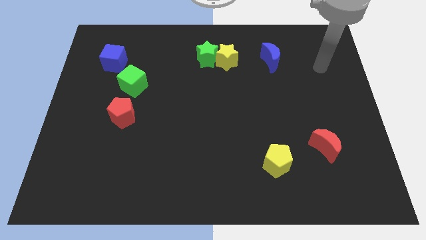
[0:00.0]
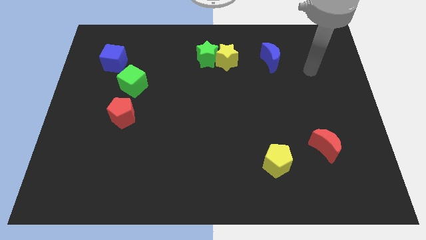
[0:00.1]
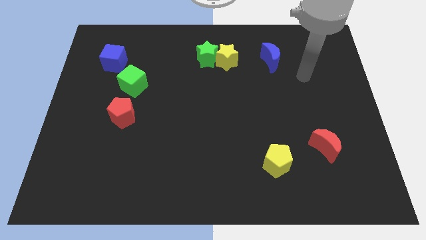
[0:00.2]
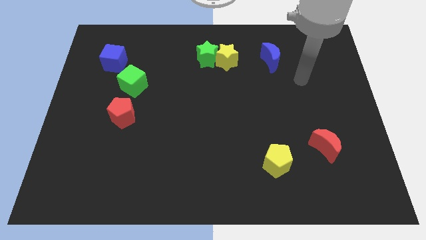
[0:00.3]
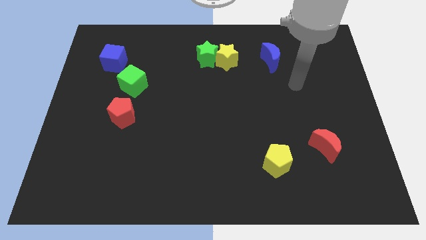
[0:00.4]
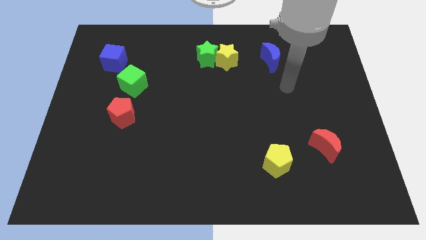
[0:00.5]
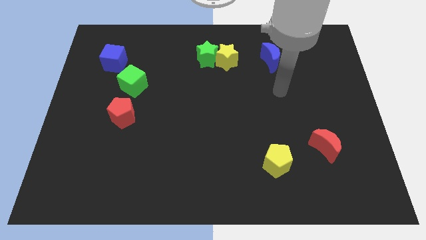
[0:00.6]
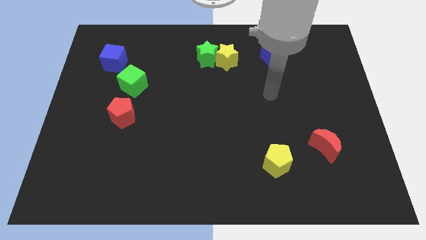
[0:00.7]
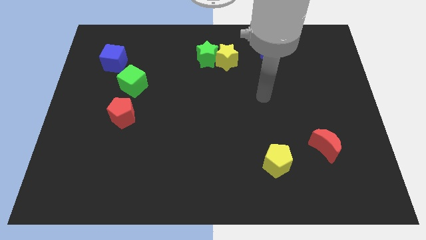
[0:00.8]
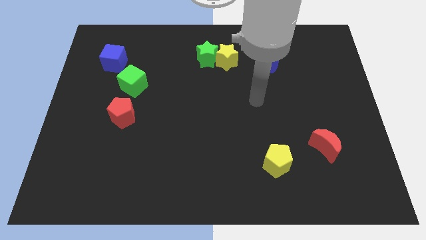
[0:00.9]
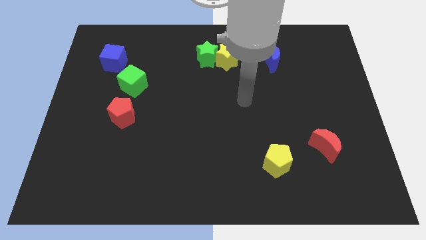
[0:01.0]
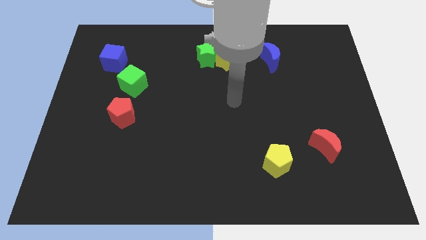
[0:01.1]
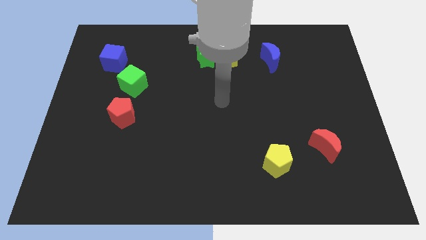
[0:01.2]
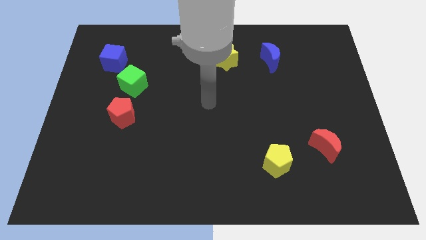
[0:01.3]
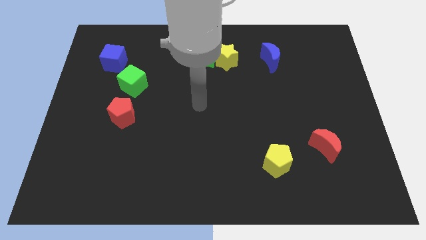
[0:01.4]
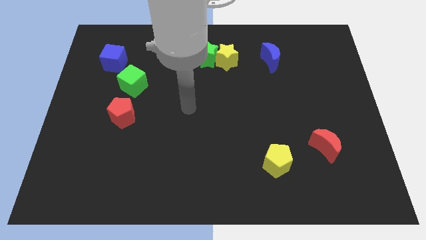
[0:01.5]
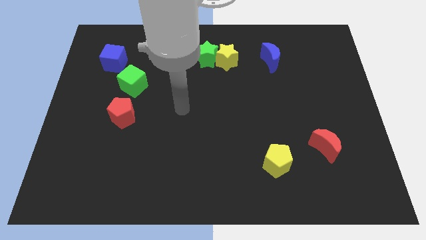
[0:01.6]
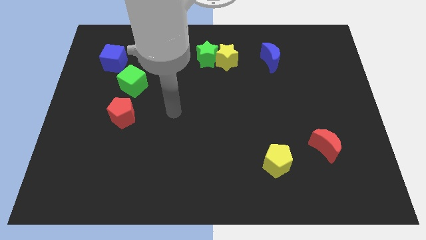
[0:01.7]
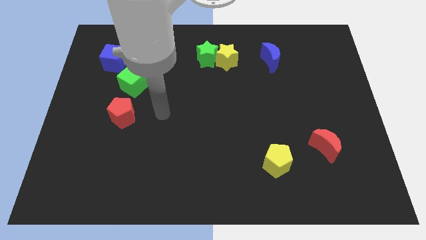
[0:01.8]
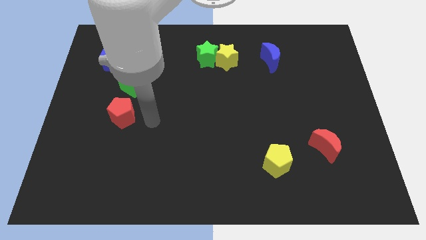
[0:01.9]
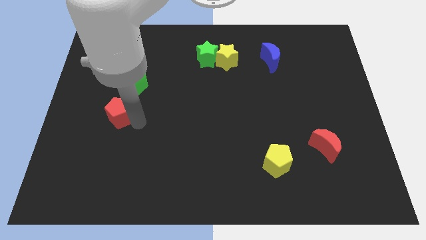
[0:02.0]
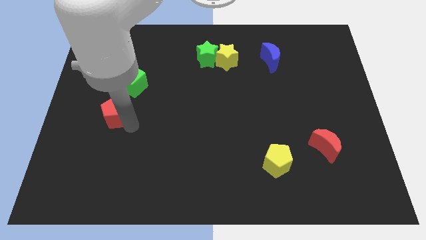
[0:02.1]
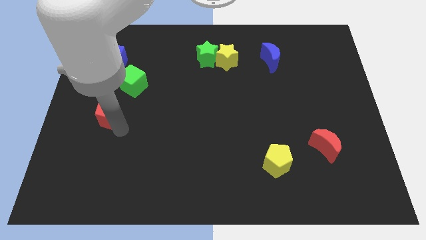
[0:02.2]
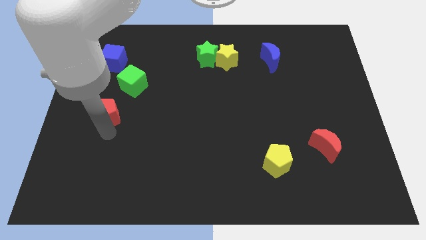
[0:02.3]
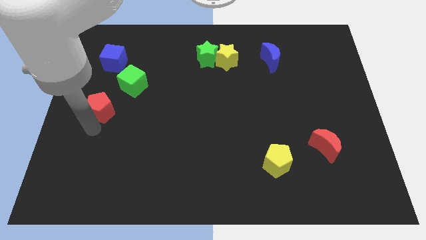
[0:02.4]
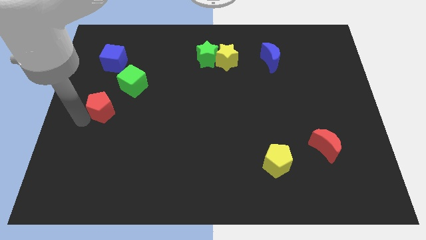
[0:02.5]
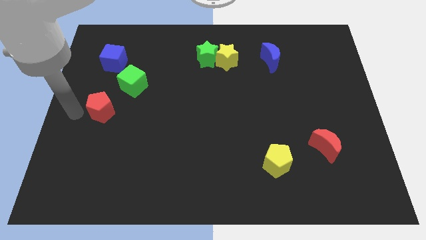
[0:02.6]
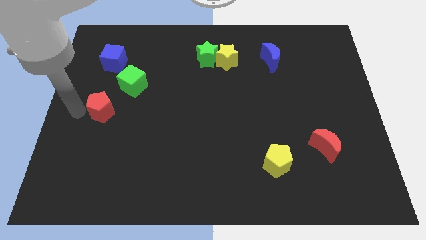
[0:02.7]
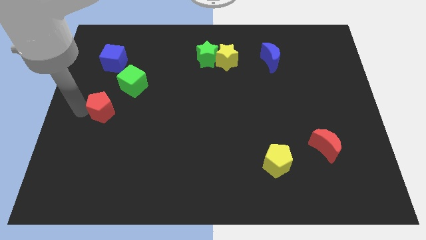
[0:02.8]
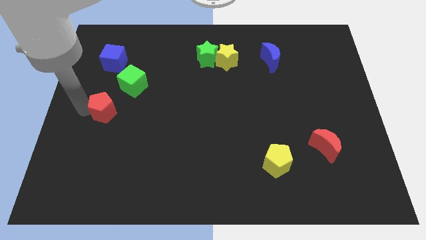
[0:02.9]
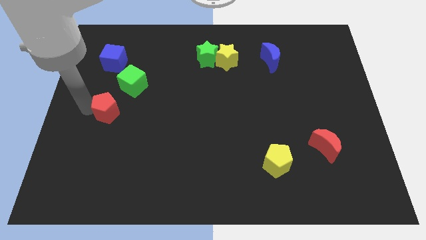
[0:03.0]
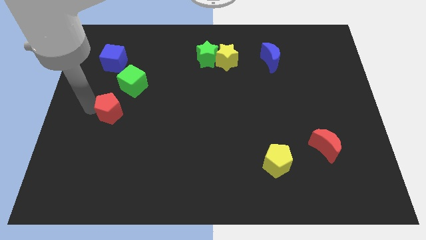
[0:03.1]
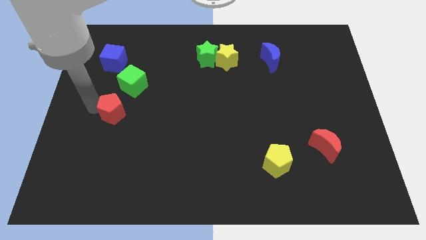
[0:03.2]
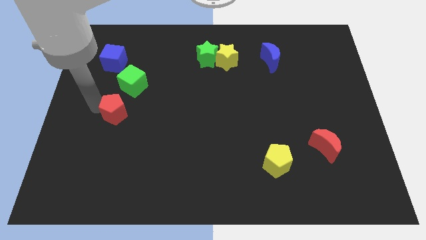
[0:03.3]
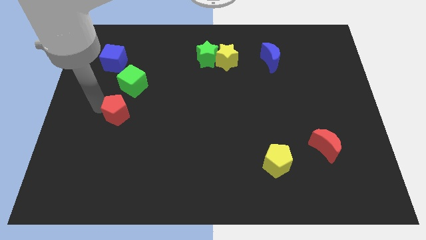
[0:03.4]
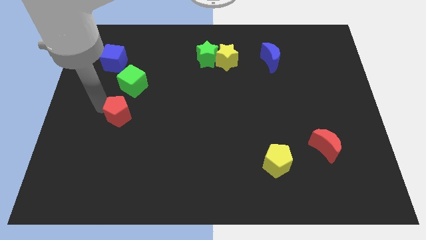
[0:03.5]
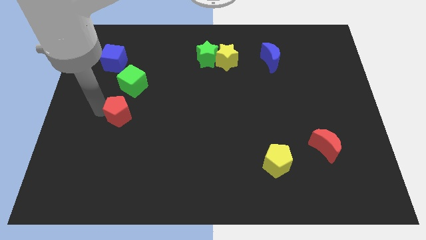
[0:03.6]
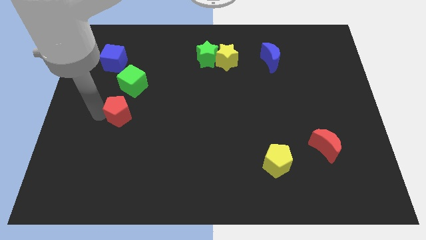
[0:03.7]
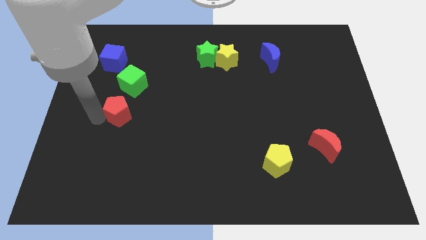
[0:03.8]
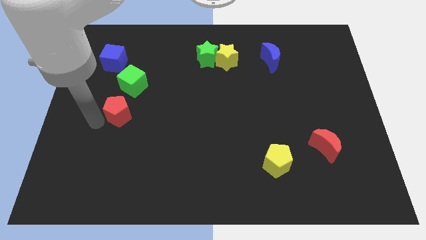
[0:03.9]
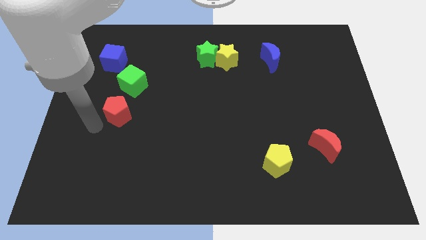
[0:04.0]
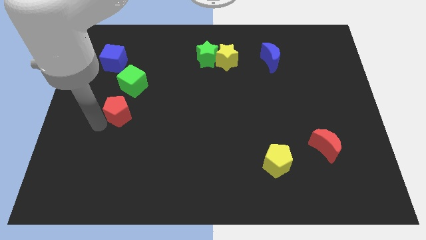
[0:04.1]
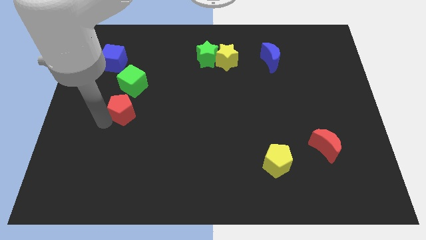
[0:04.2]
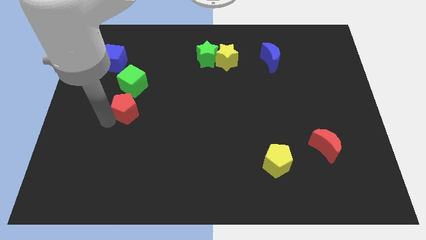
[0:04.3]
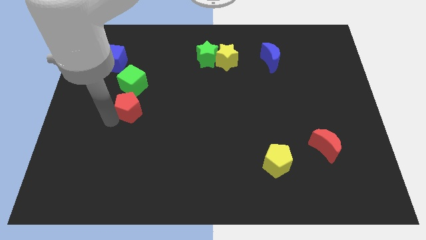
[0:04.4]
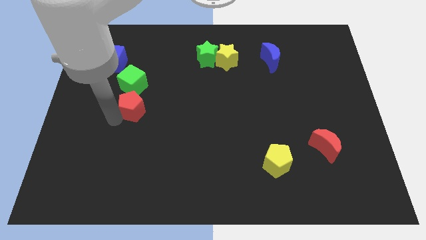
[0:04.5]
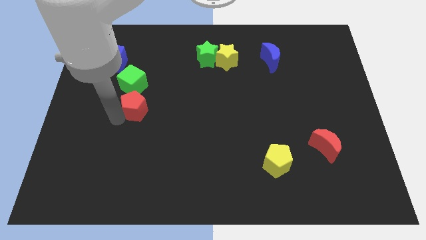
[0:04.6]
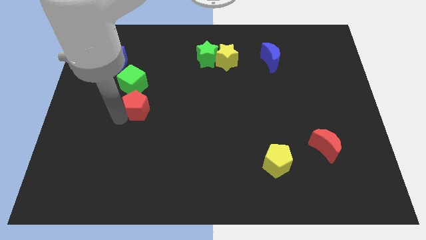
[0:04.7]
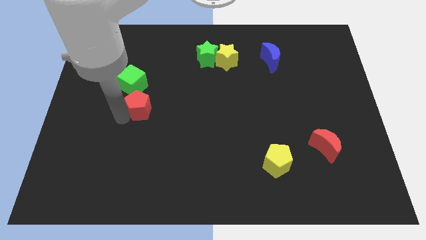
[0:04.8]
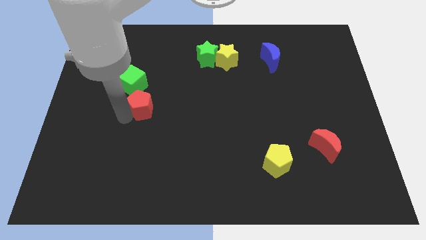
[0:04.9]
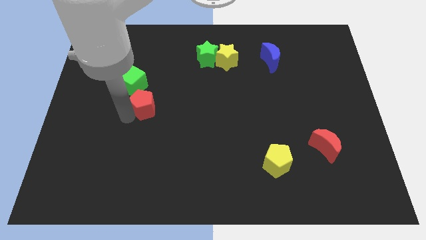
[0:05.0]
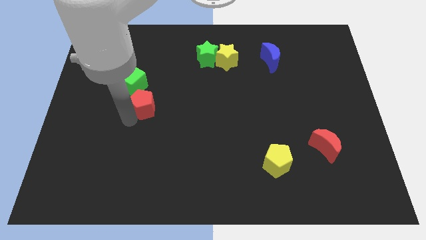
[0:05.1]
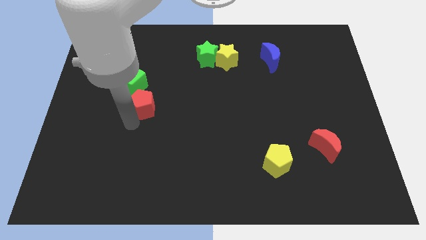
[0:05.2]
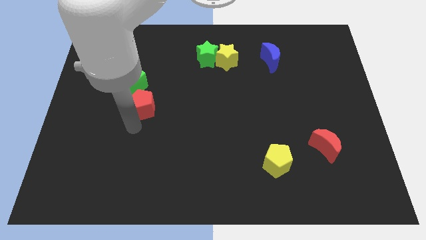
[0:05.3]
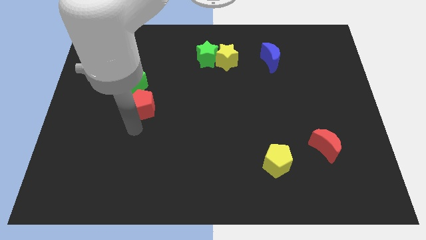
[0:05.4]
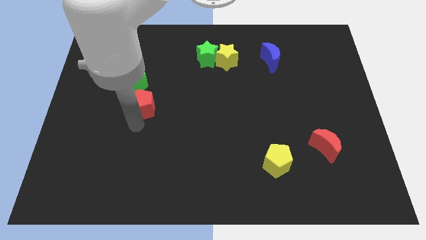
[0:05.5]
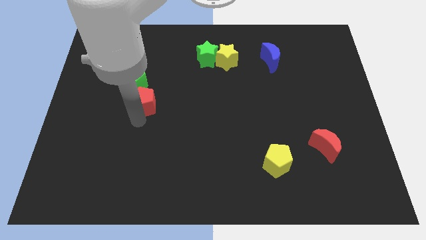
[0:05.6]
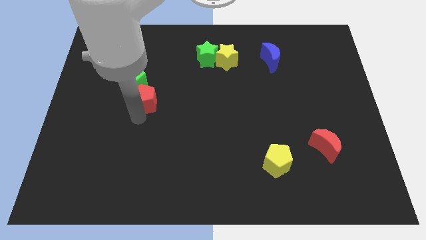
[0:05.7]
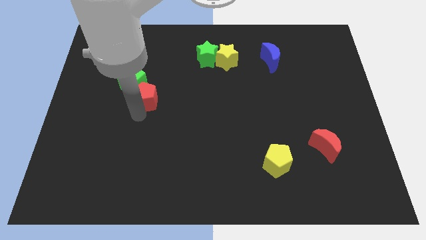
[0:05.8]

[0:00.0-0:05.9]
slightly move the red pentagon up and then to the right

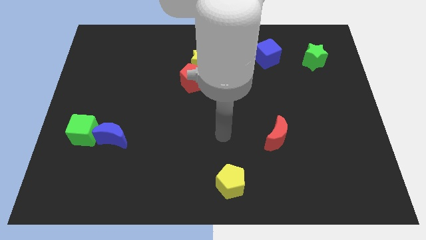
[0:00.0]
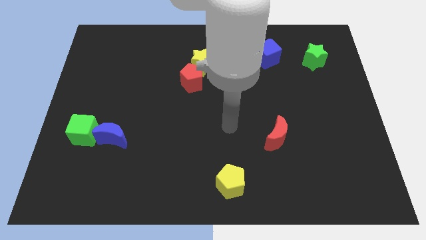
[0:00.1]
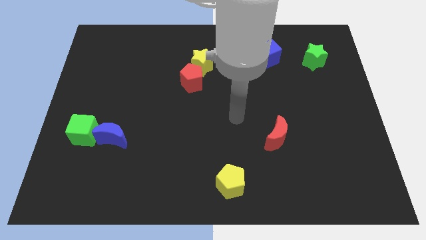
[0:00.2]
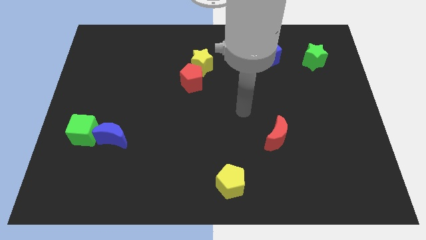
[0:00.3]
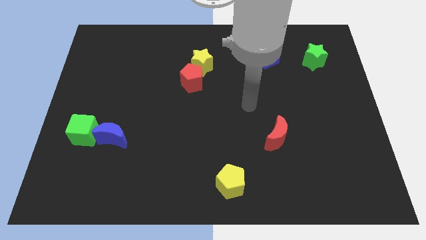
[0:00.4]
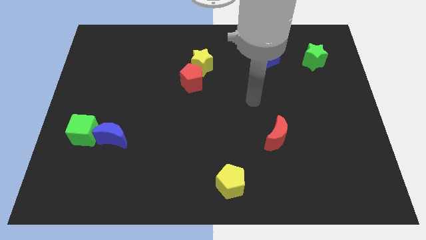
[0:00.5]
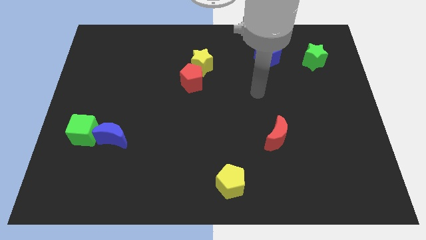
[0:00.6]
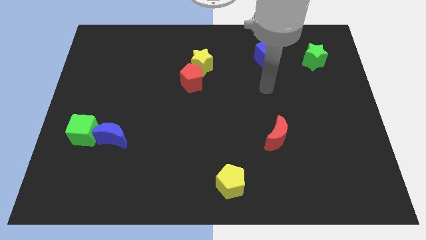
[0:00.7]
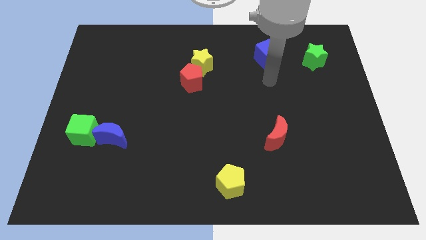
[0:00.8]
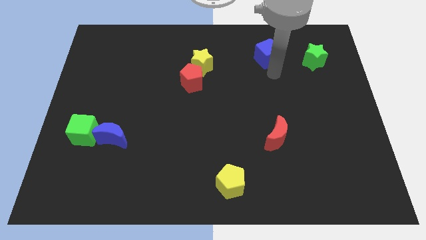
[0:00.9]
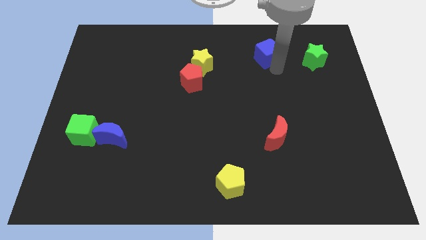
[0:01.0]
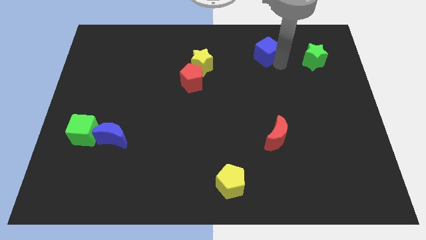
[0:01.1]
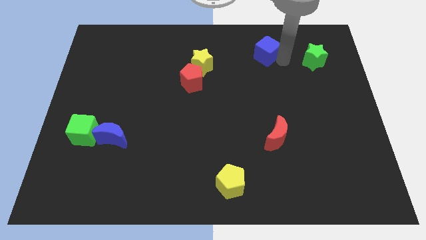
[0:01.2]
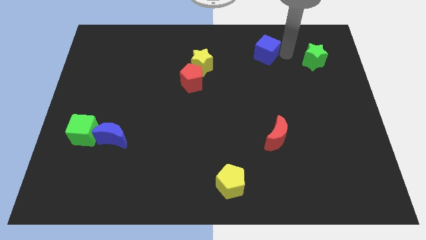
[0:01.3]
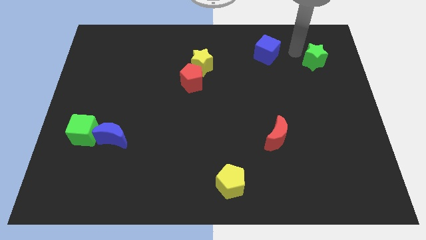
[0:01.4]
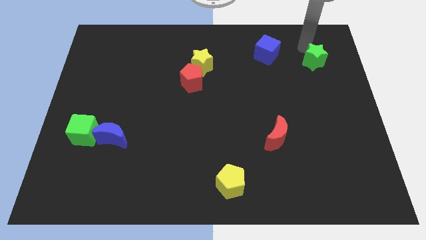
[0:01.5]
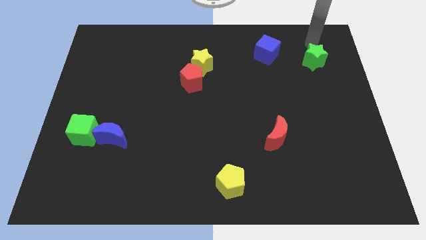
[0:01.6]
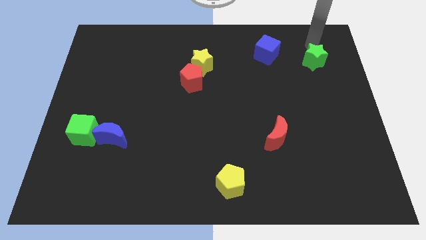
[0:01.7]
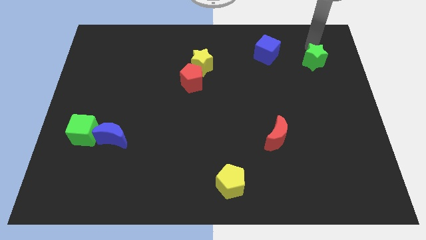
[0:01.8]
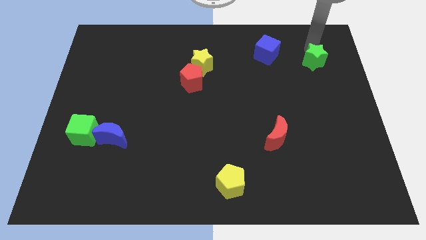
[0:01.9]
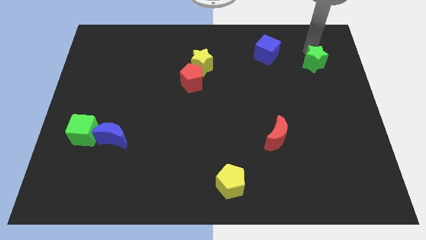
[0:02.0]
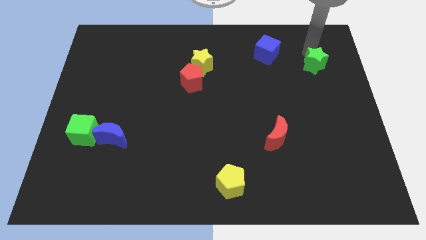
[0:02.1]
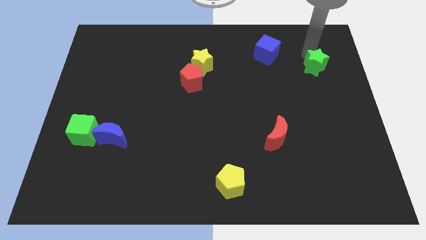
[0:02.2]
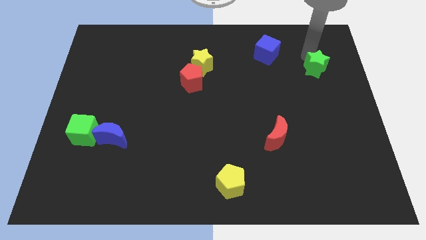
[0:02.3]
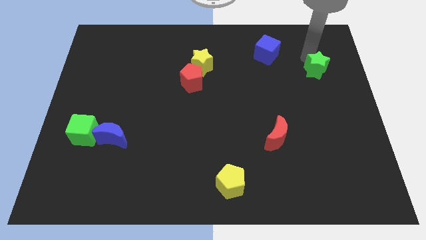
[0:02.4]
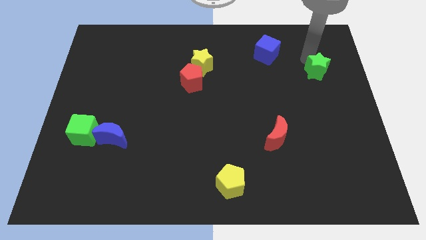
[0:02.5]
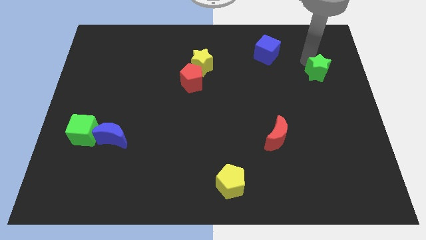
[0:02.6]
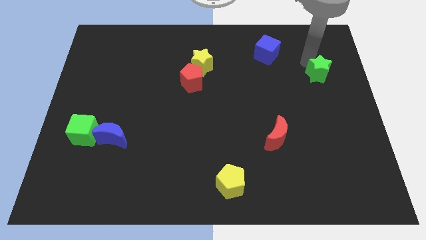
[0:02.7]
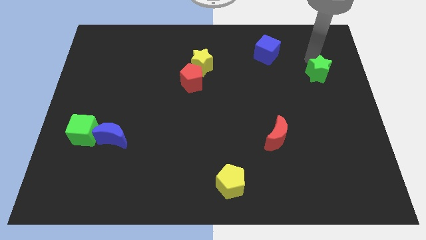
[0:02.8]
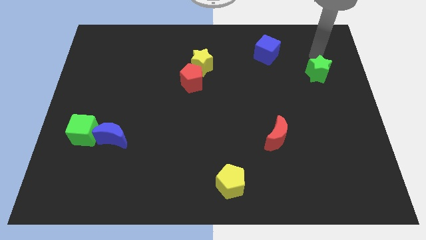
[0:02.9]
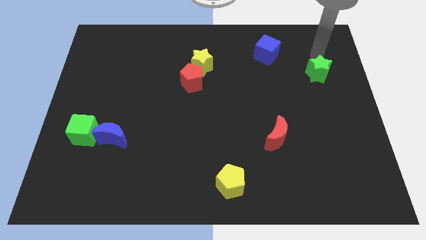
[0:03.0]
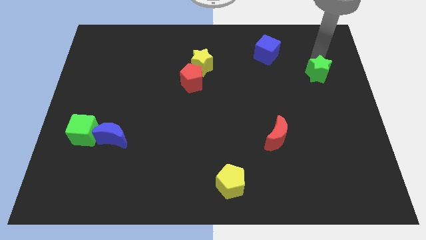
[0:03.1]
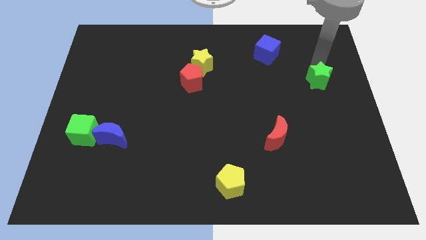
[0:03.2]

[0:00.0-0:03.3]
move the green star slightly down
